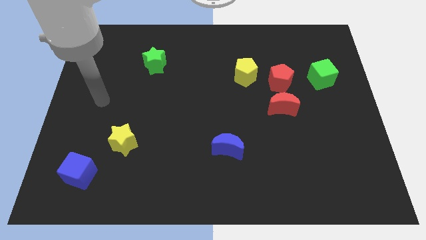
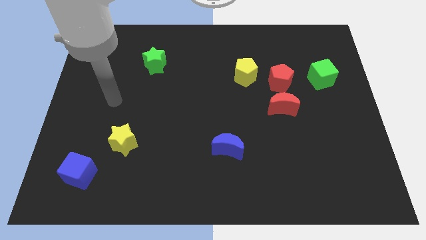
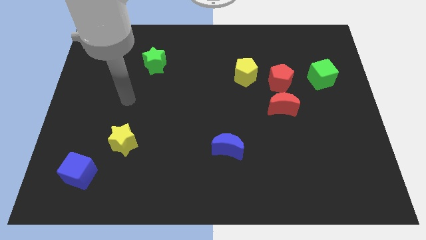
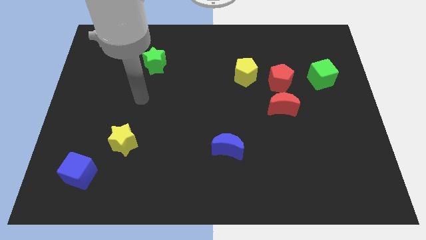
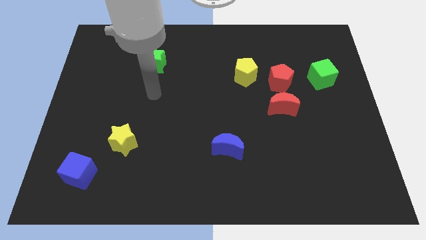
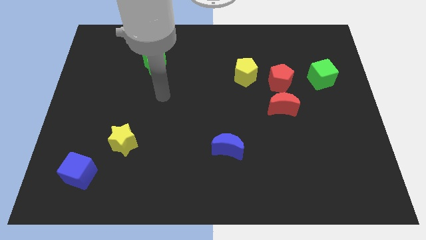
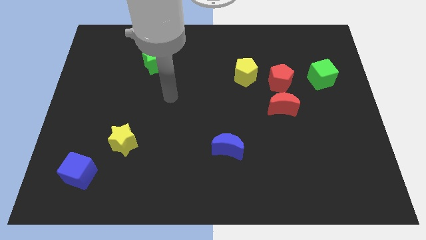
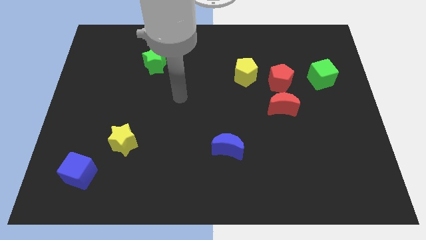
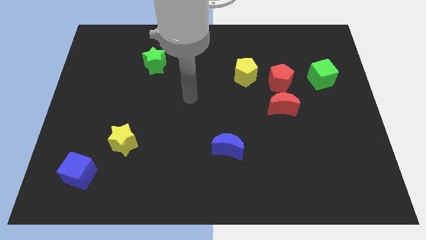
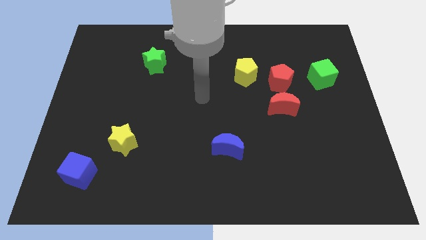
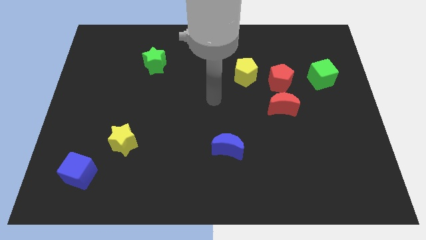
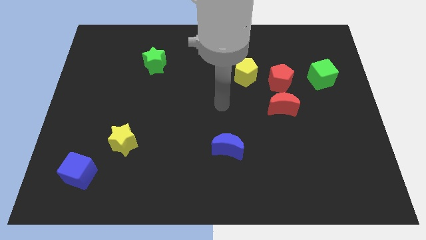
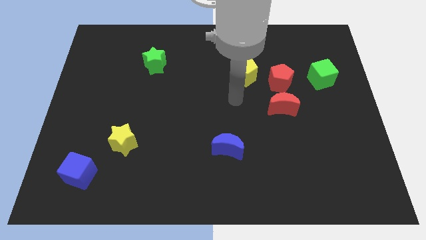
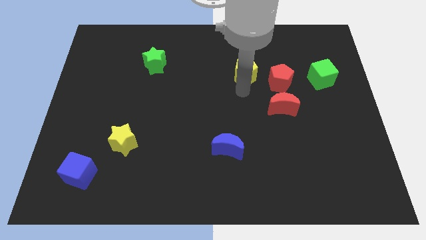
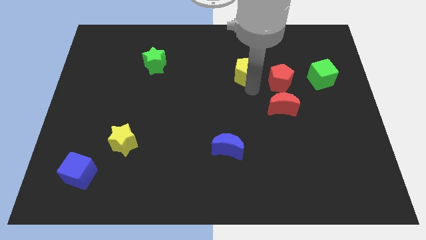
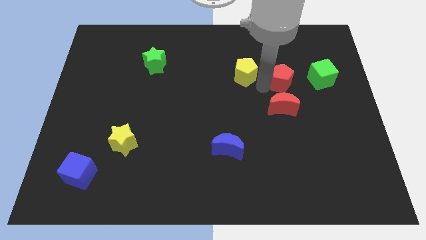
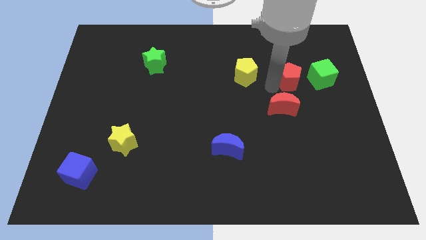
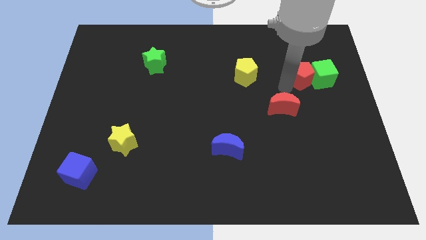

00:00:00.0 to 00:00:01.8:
move the red moon away from the red pentagon

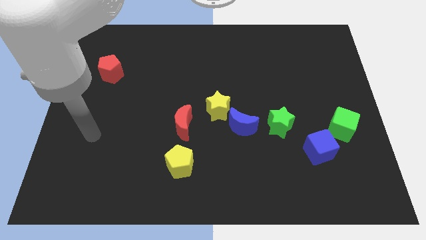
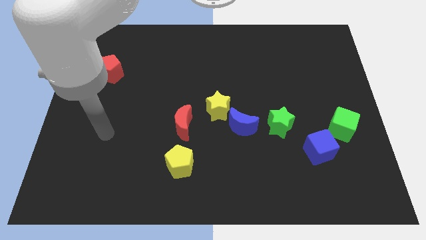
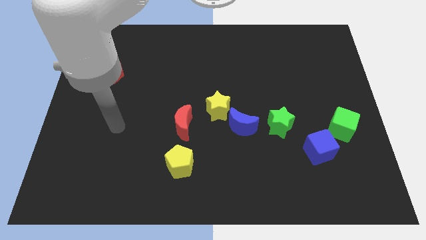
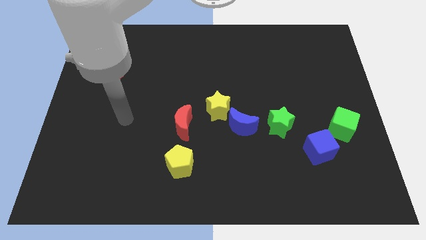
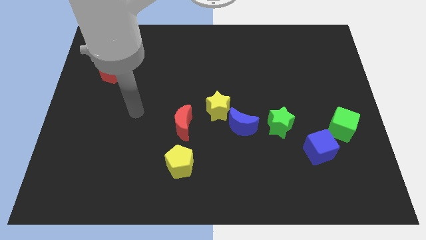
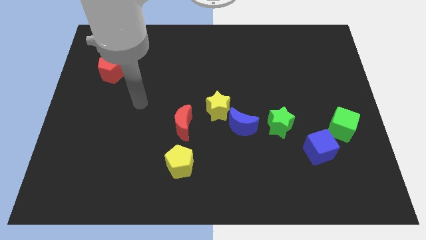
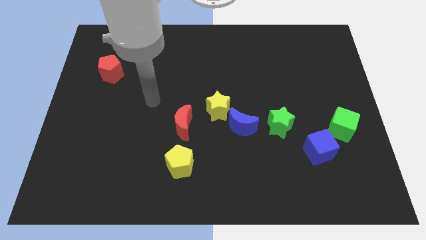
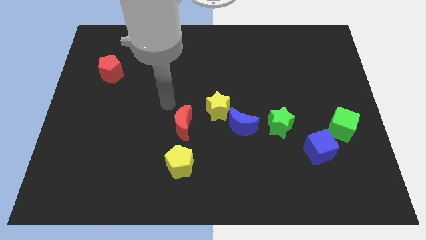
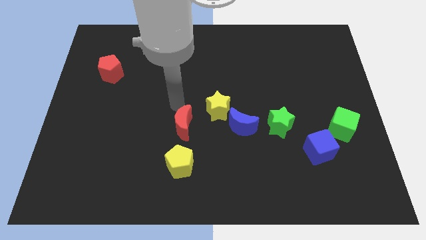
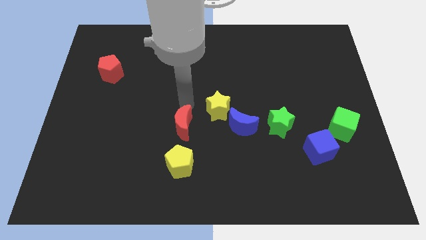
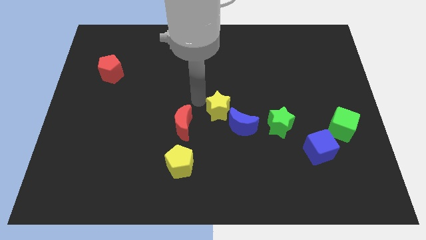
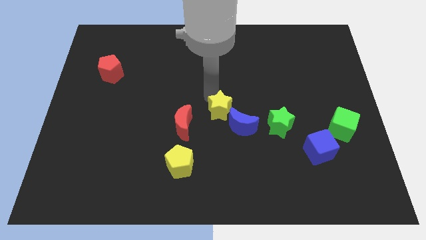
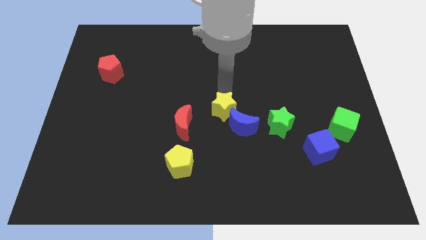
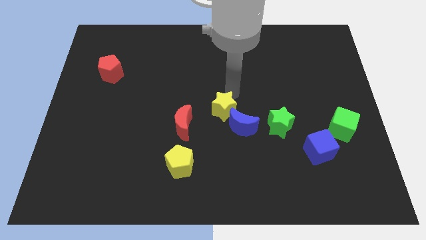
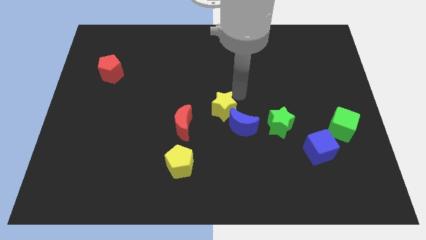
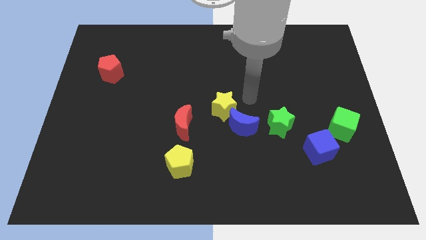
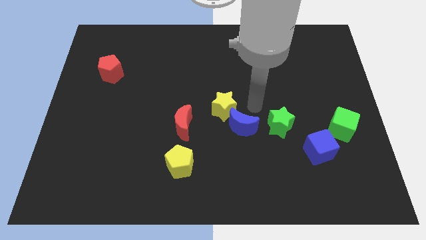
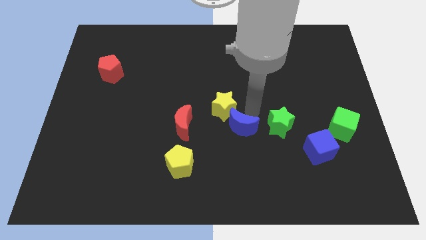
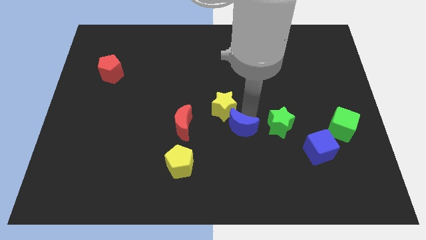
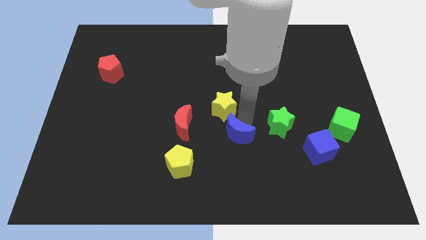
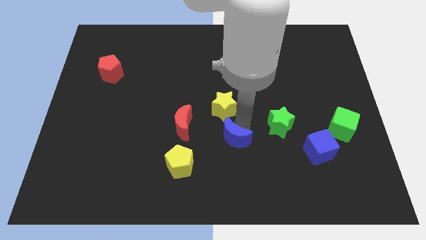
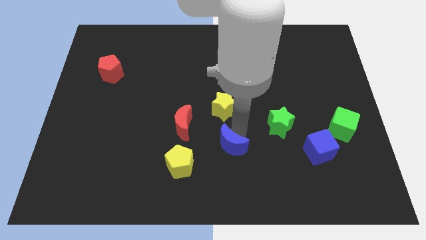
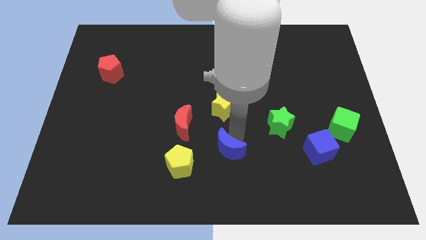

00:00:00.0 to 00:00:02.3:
separate the blue moon from the yellow star and green star

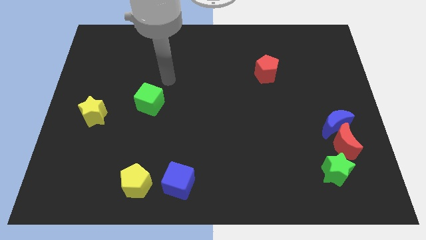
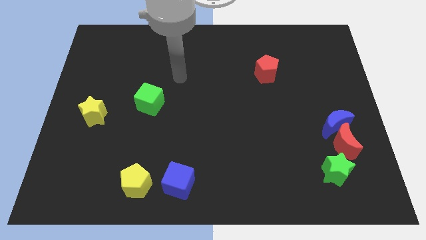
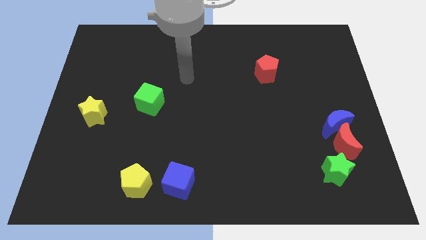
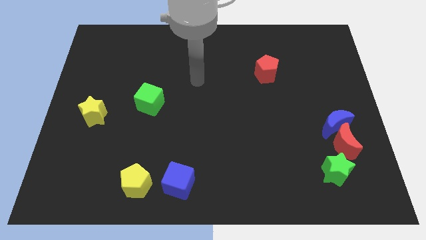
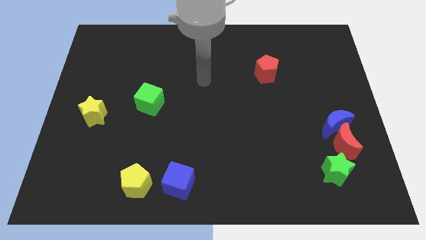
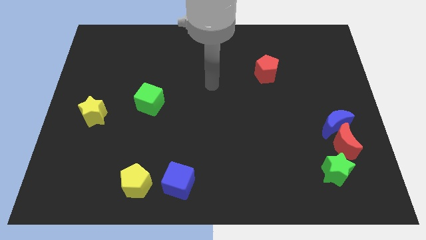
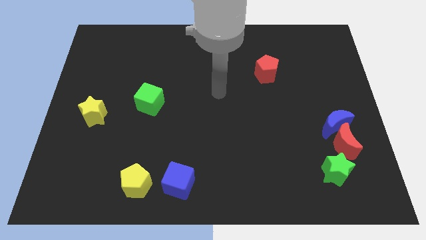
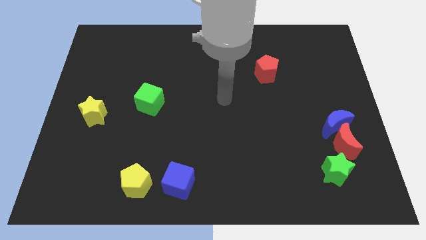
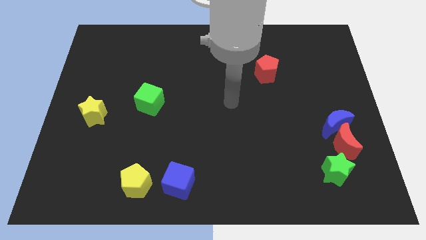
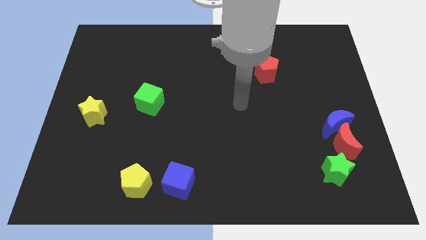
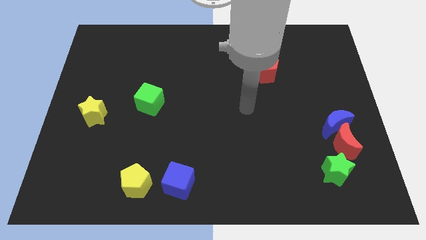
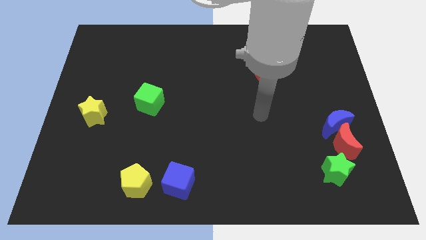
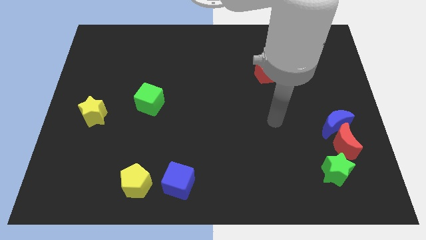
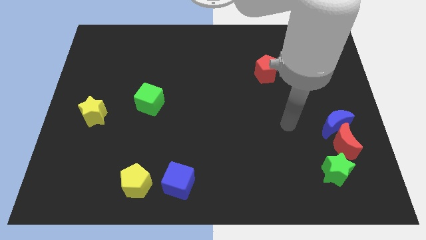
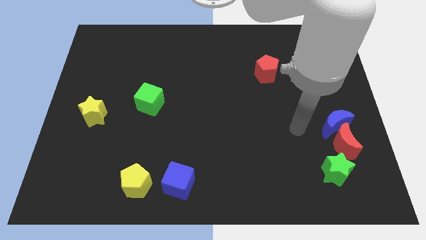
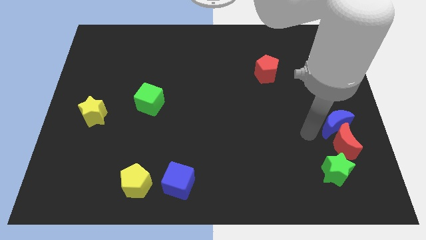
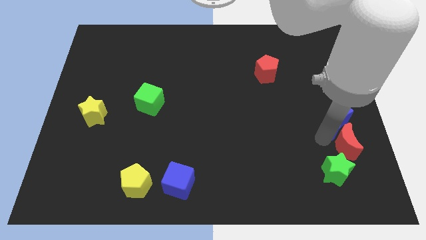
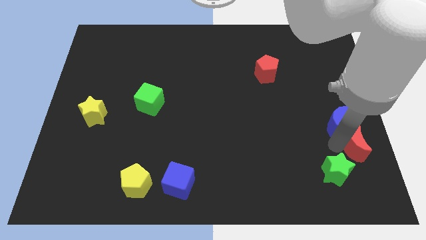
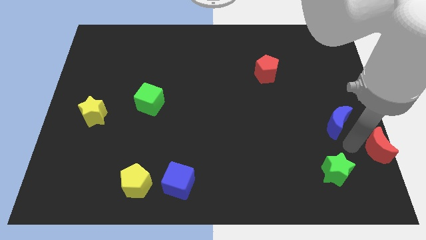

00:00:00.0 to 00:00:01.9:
pull the blue moon apart from the red moon

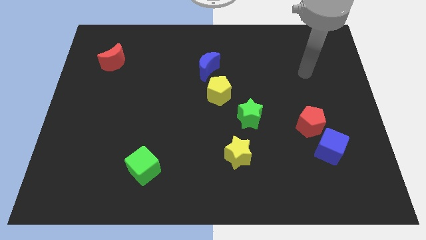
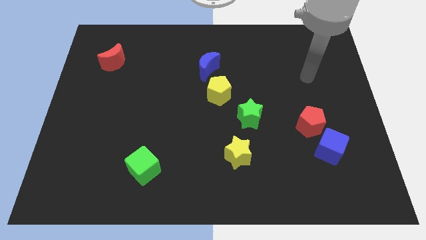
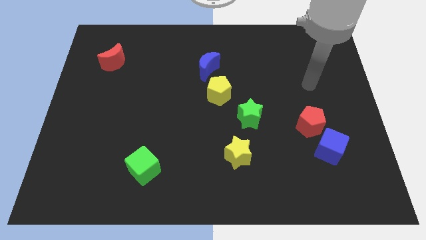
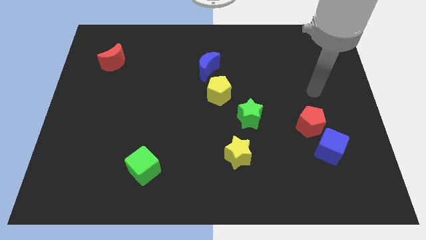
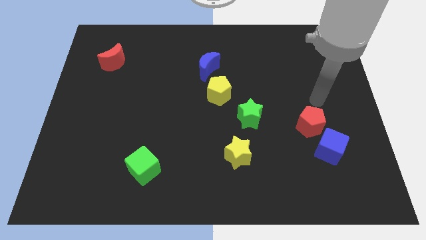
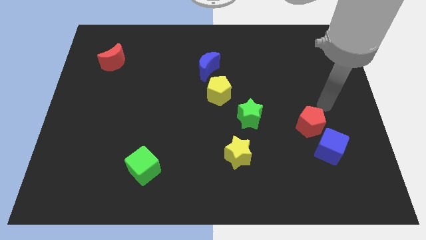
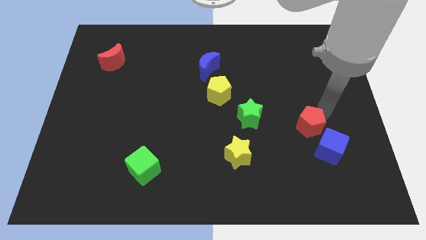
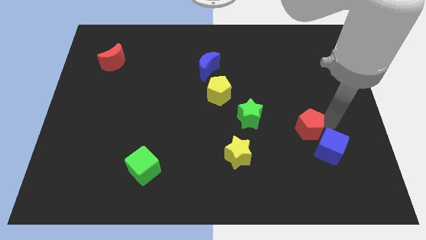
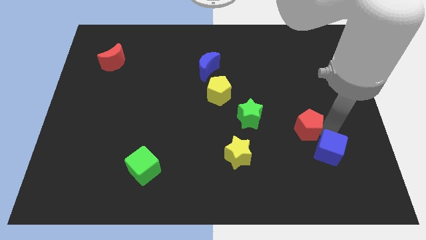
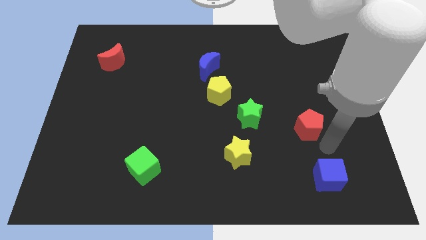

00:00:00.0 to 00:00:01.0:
separate the red pentagon from the blue cube

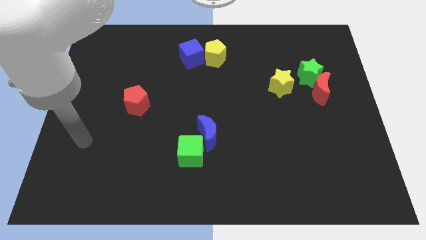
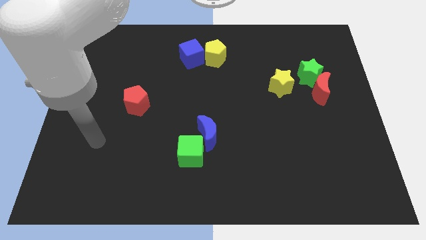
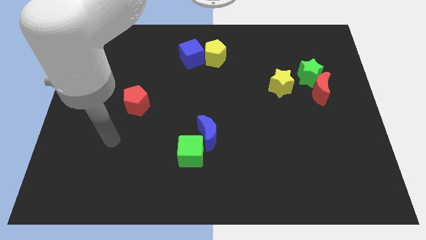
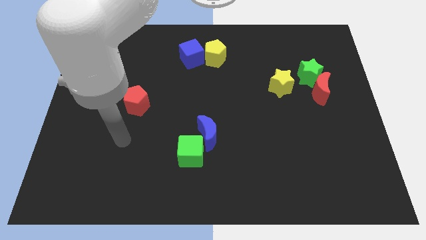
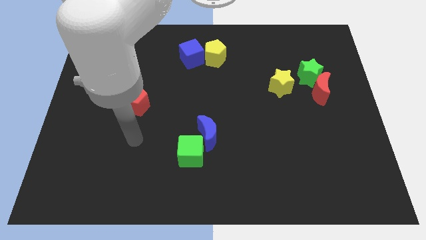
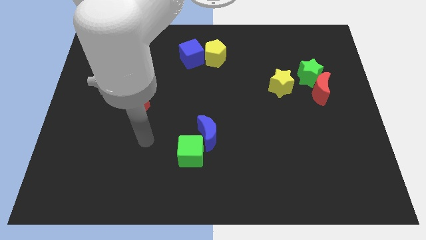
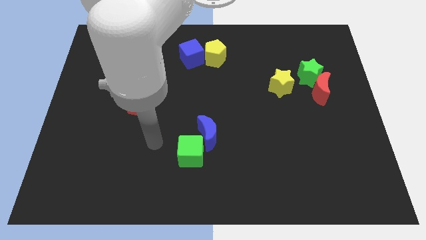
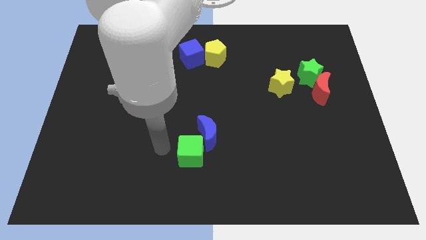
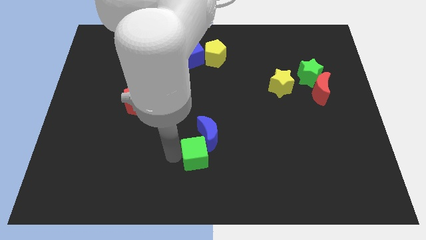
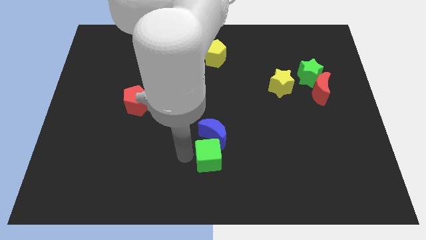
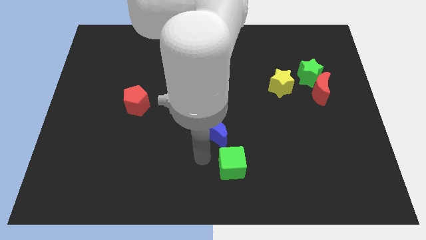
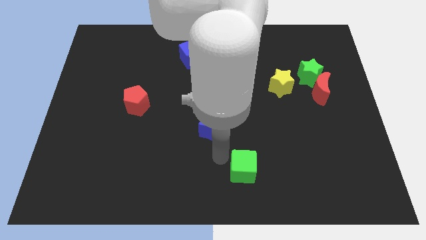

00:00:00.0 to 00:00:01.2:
separate the blue moon from the green cube

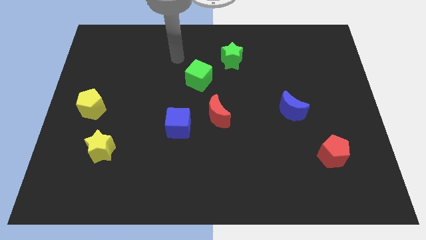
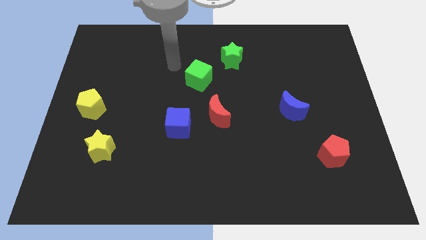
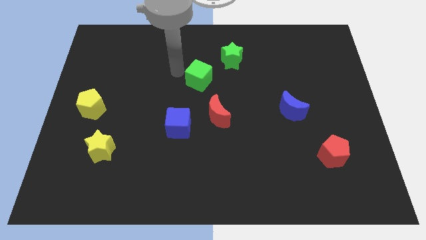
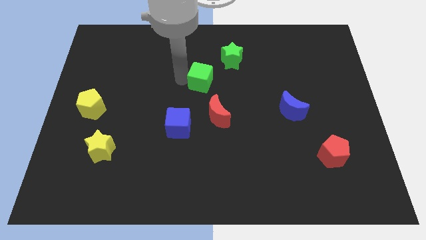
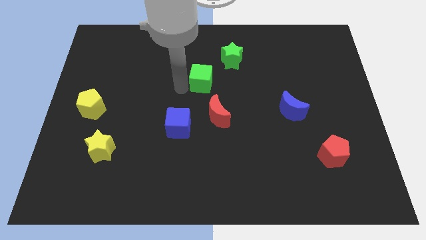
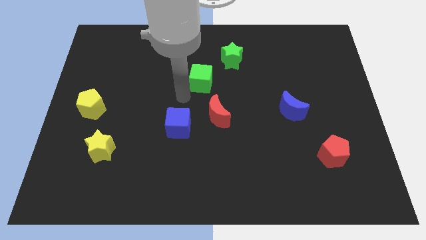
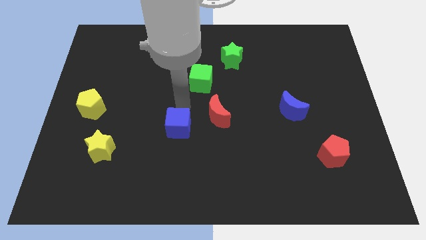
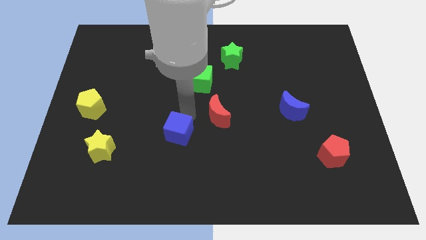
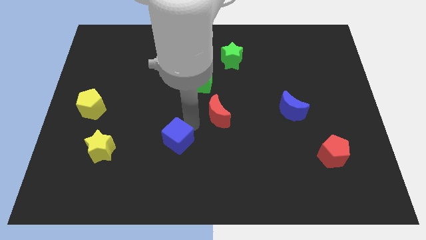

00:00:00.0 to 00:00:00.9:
move the red moon away from the blue cube

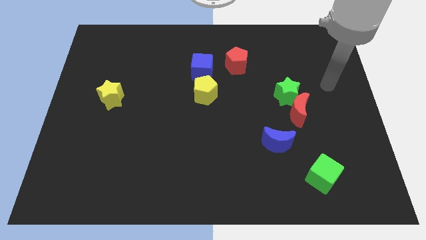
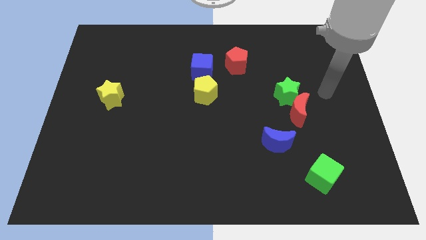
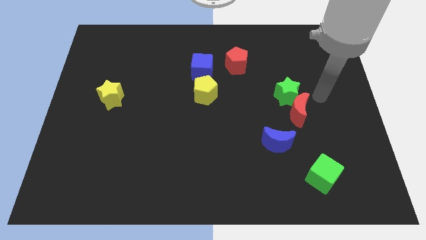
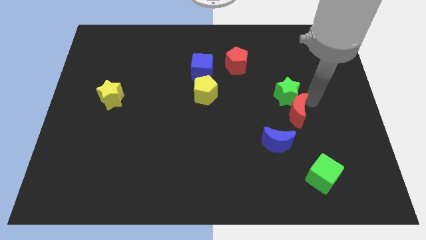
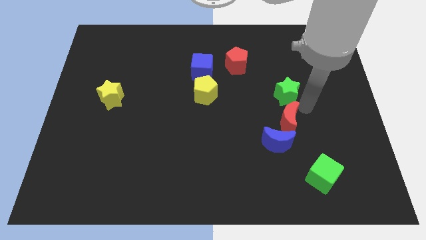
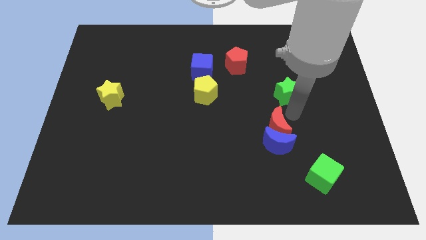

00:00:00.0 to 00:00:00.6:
pull the green star apart from the red moon
